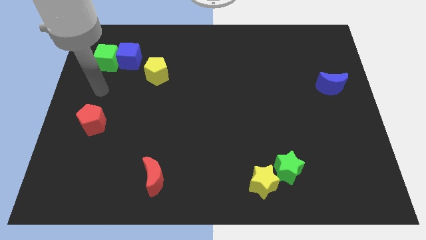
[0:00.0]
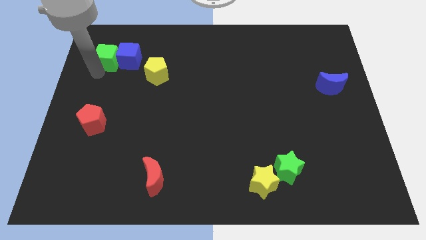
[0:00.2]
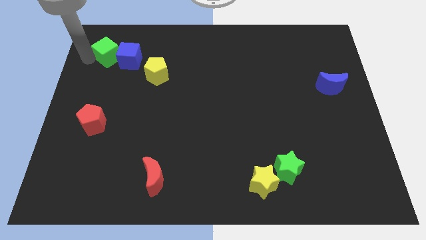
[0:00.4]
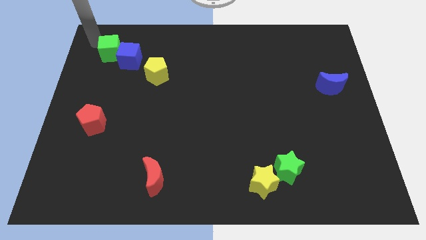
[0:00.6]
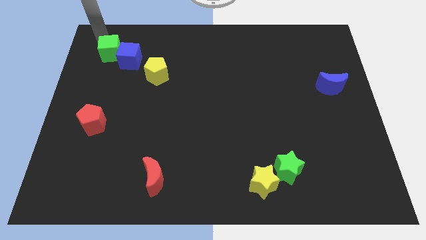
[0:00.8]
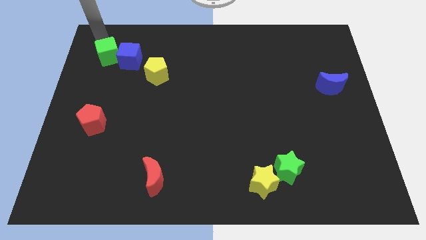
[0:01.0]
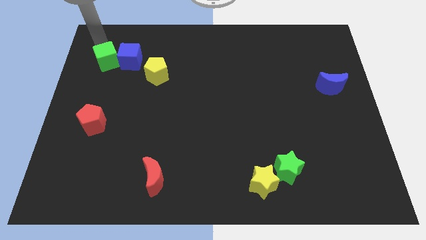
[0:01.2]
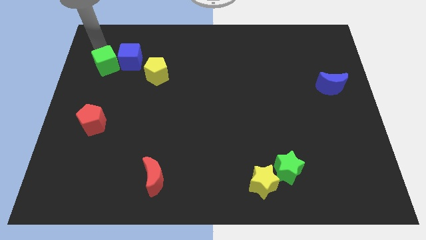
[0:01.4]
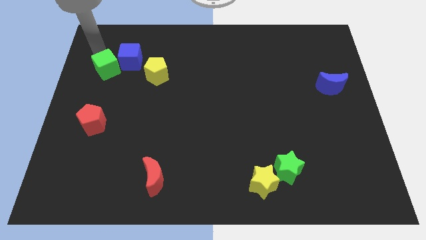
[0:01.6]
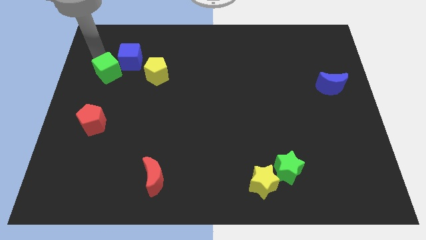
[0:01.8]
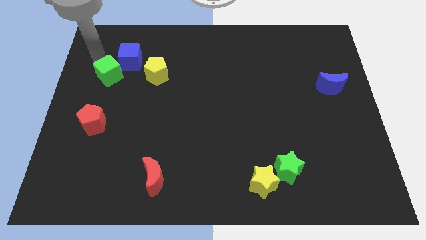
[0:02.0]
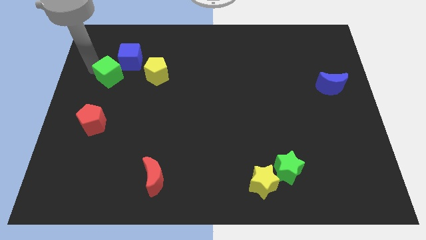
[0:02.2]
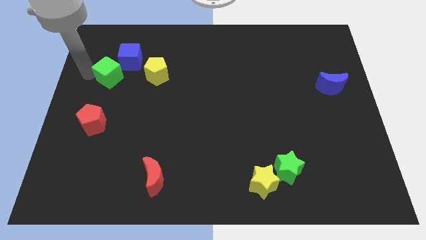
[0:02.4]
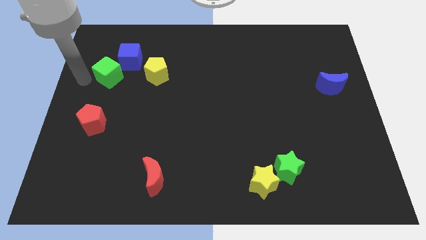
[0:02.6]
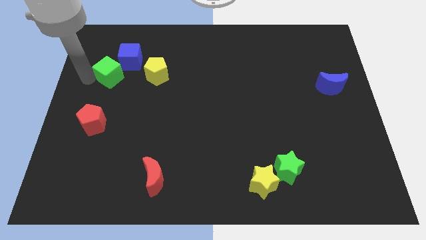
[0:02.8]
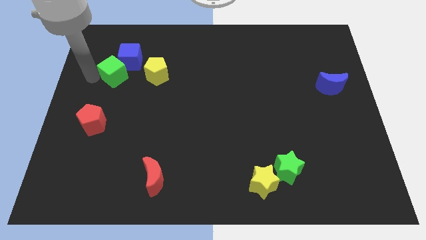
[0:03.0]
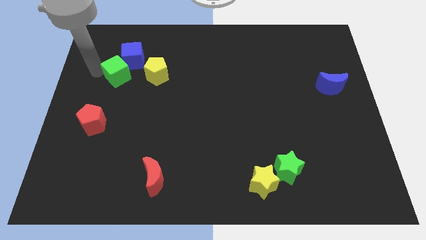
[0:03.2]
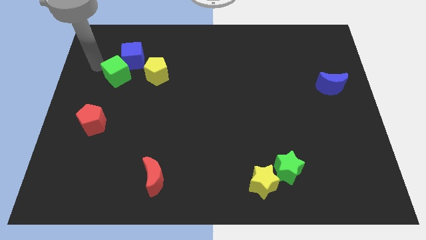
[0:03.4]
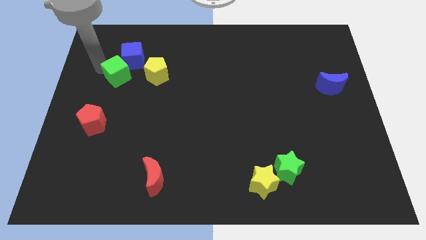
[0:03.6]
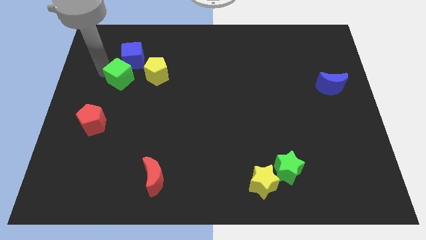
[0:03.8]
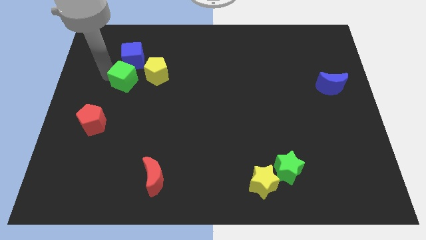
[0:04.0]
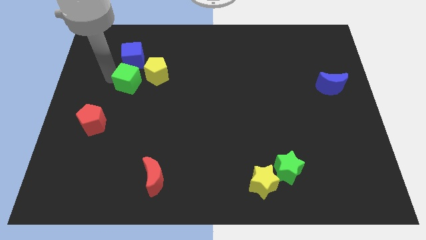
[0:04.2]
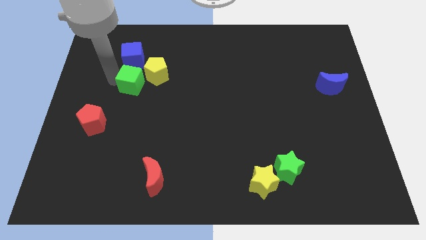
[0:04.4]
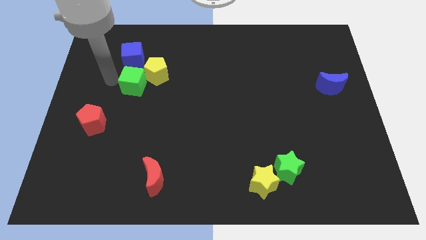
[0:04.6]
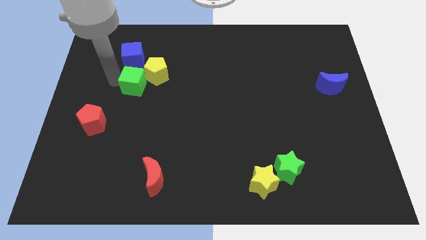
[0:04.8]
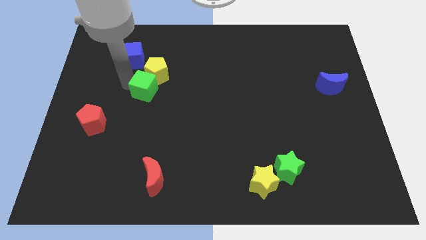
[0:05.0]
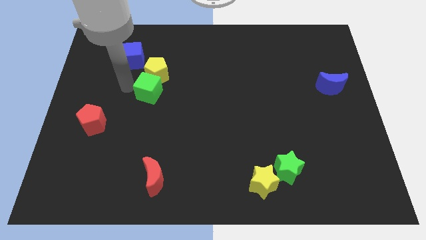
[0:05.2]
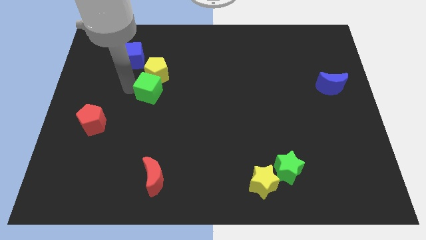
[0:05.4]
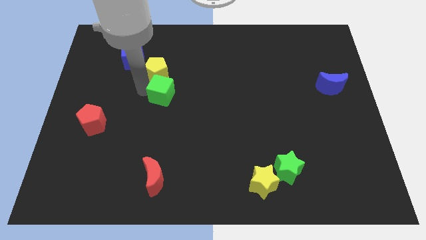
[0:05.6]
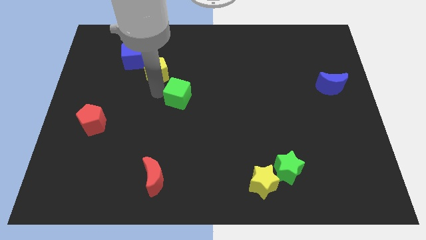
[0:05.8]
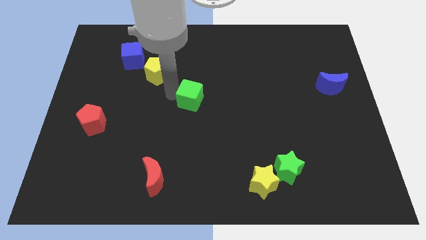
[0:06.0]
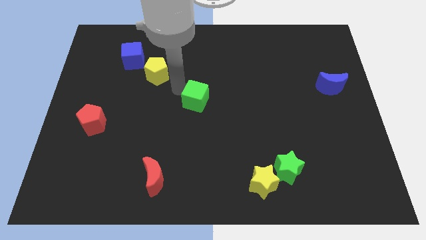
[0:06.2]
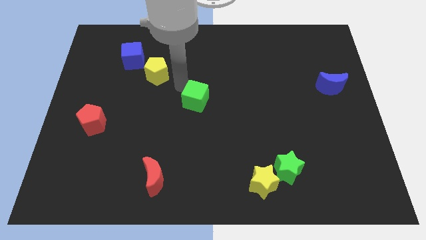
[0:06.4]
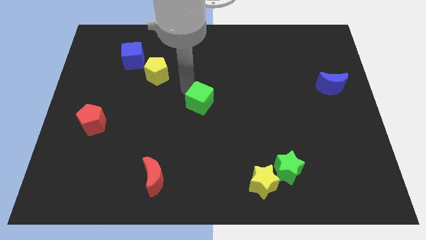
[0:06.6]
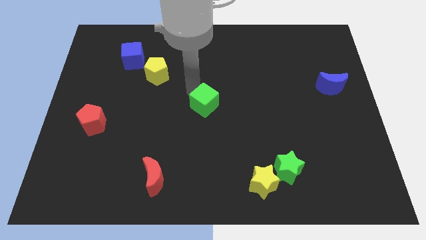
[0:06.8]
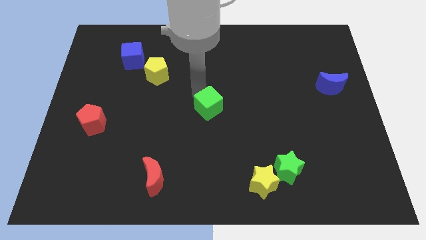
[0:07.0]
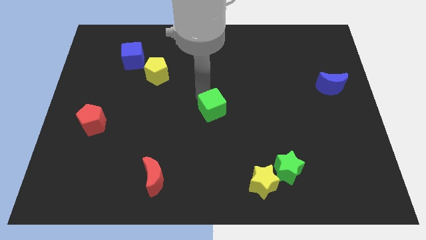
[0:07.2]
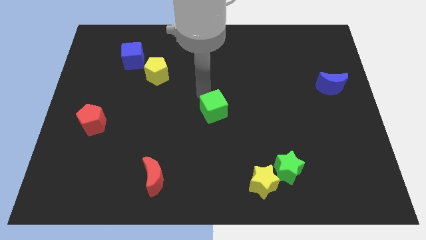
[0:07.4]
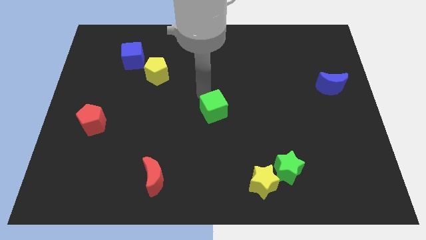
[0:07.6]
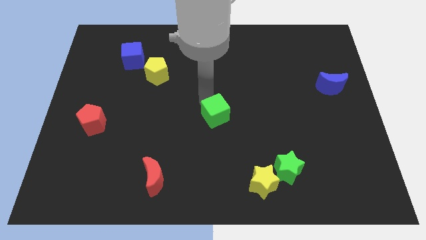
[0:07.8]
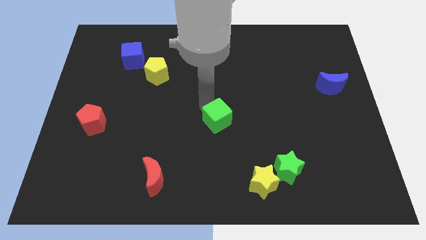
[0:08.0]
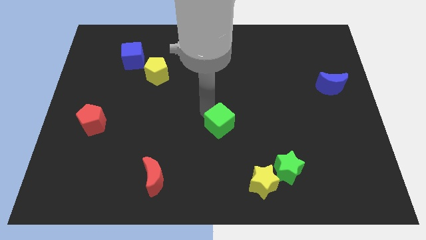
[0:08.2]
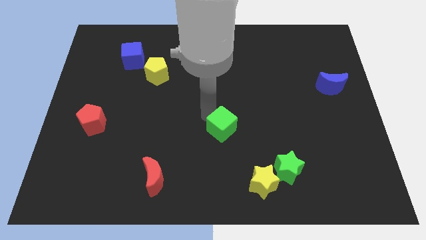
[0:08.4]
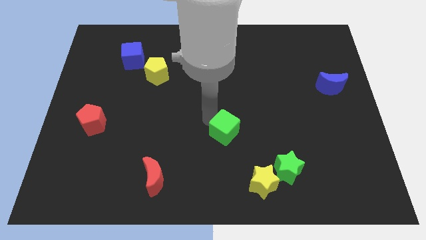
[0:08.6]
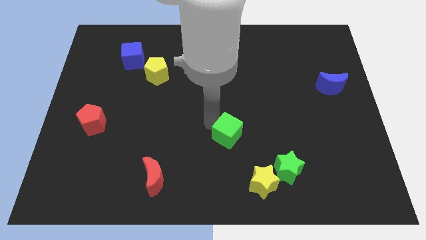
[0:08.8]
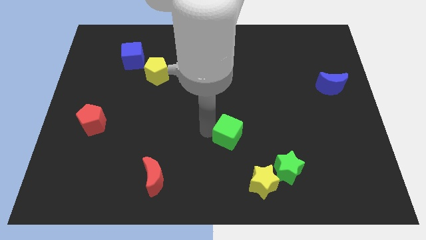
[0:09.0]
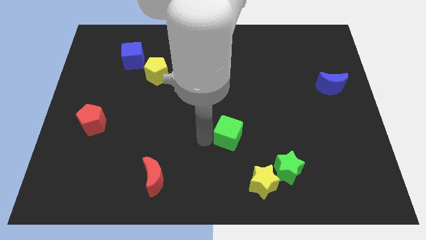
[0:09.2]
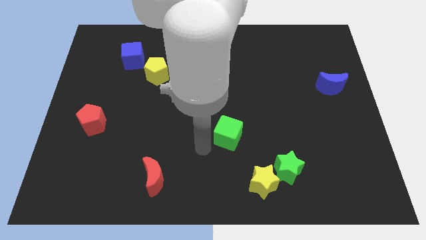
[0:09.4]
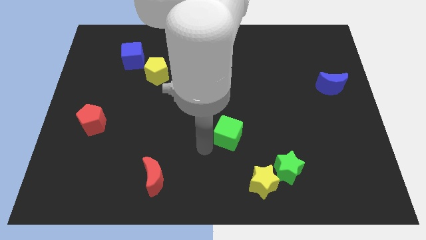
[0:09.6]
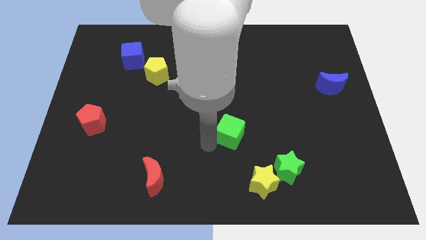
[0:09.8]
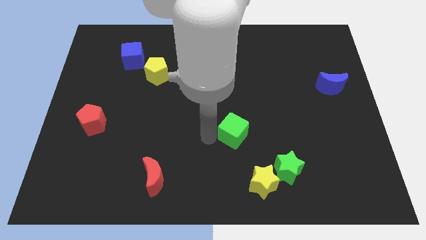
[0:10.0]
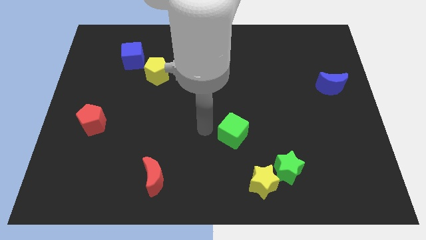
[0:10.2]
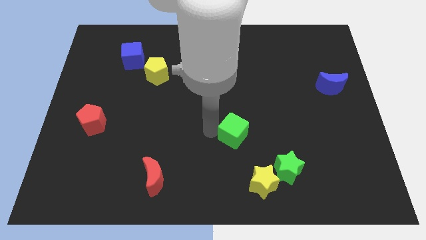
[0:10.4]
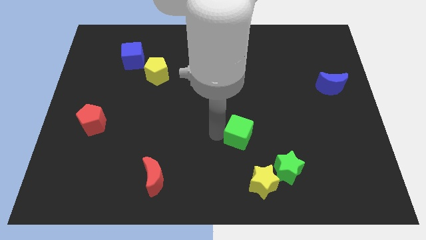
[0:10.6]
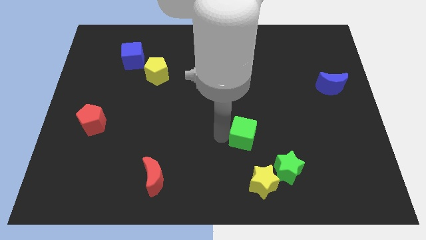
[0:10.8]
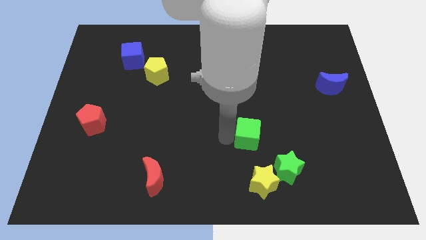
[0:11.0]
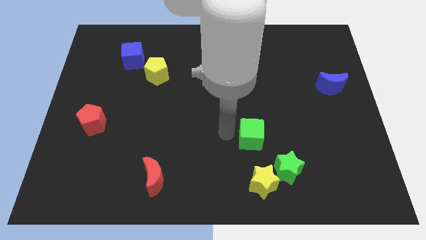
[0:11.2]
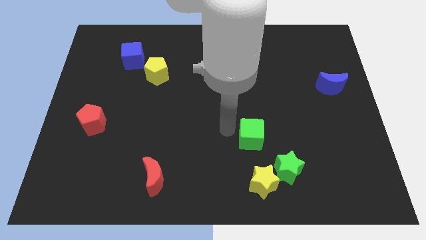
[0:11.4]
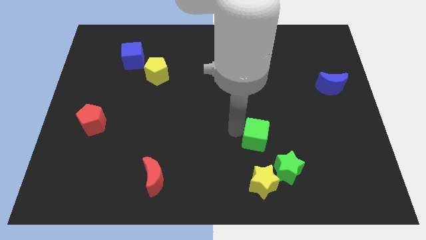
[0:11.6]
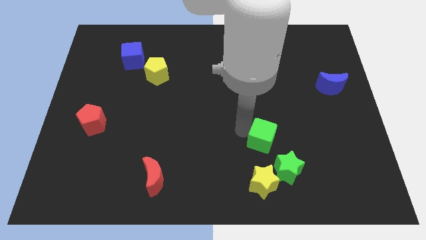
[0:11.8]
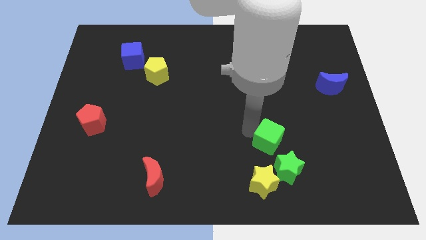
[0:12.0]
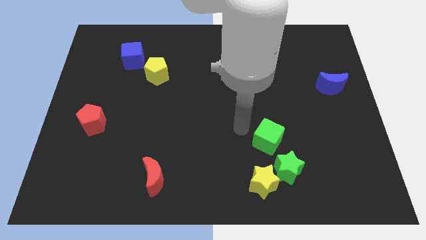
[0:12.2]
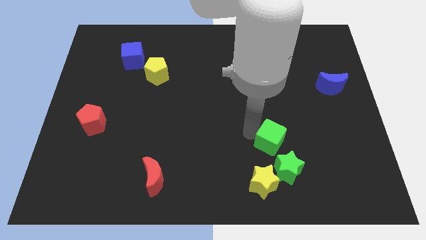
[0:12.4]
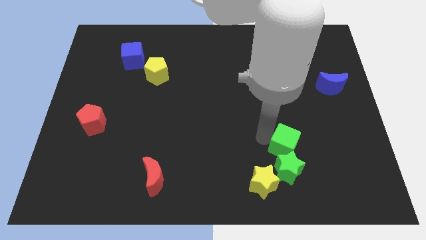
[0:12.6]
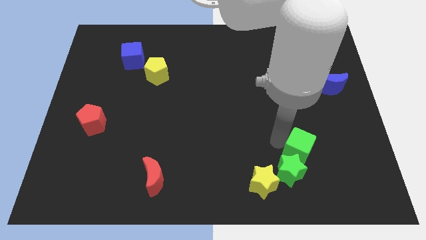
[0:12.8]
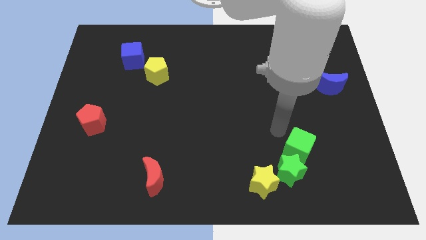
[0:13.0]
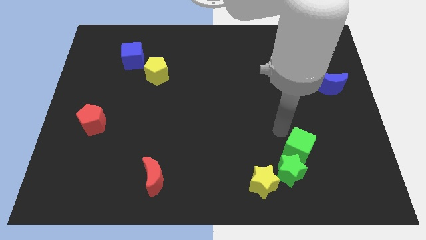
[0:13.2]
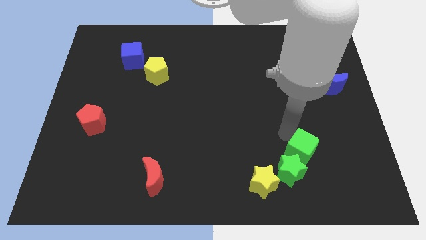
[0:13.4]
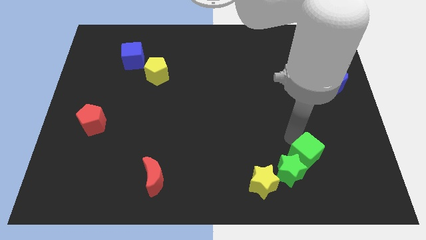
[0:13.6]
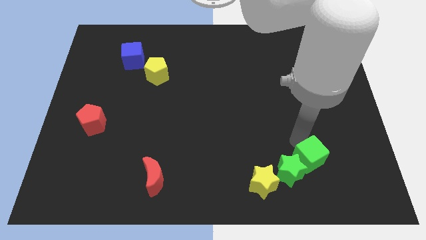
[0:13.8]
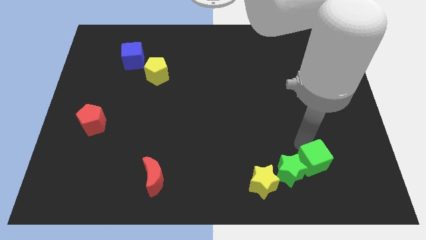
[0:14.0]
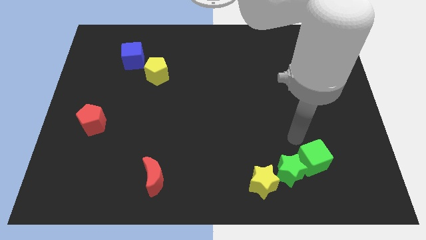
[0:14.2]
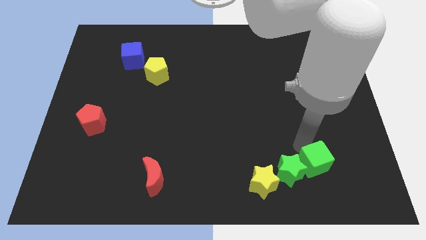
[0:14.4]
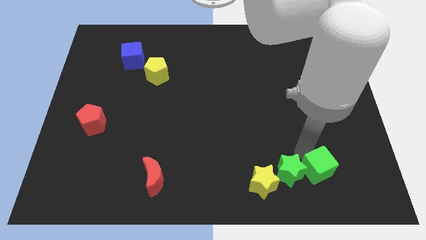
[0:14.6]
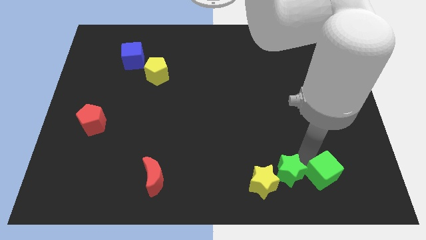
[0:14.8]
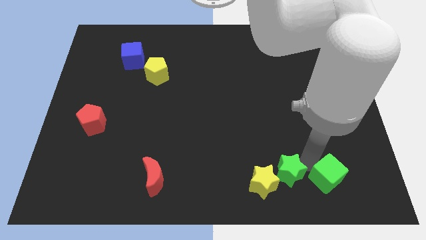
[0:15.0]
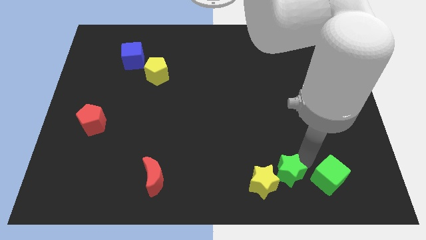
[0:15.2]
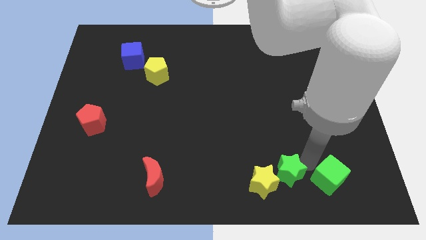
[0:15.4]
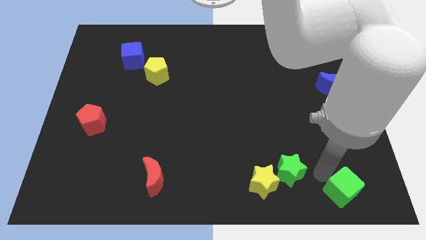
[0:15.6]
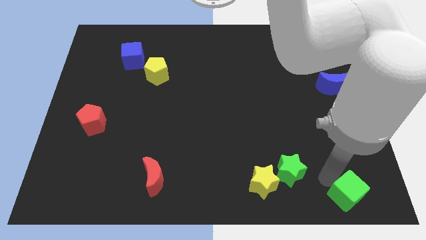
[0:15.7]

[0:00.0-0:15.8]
push the green cube to the bottom right of the board
